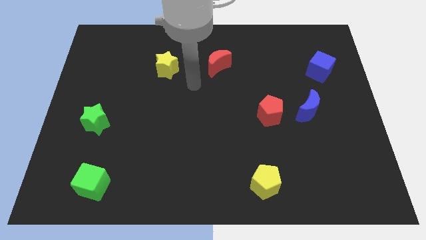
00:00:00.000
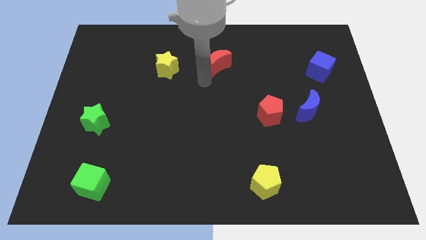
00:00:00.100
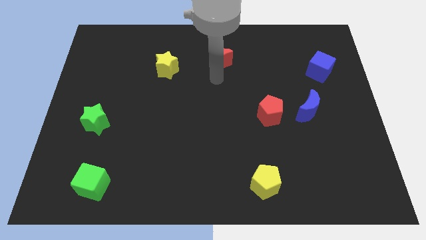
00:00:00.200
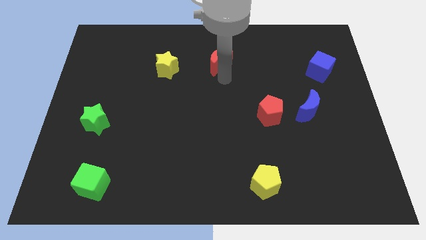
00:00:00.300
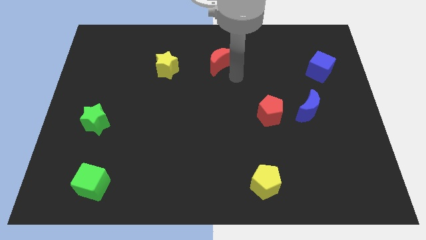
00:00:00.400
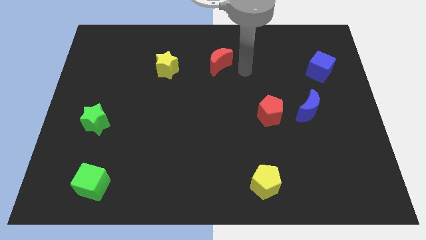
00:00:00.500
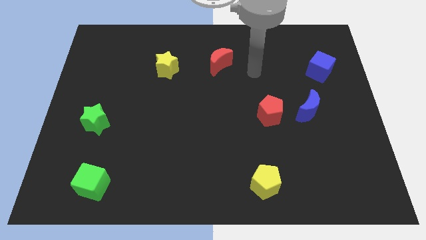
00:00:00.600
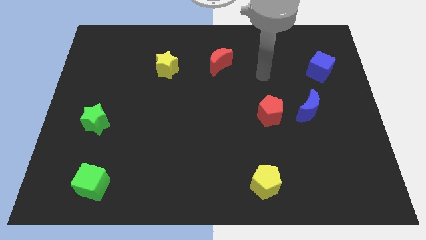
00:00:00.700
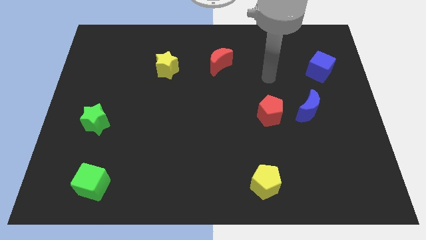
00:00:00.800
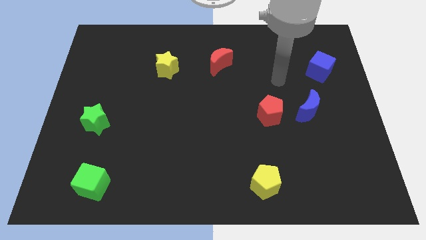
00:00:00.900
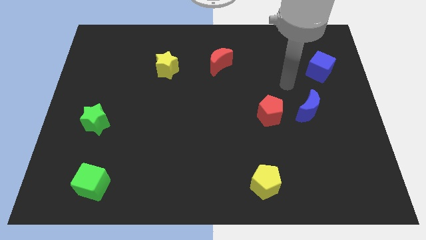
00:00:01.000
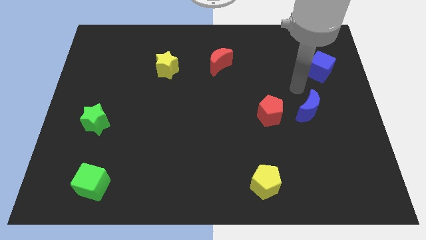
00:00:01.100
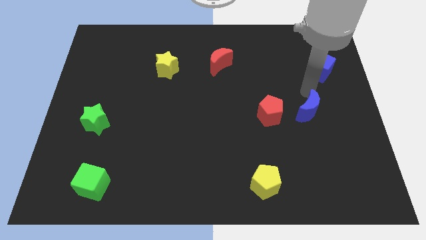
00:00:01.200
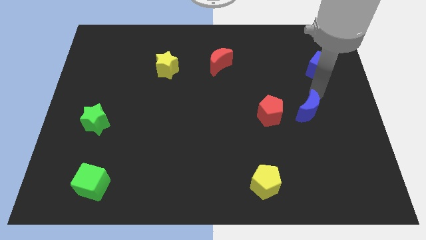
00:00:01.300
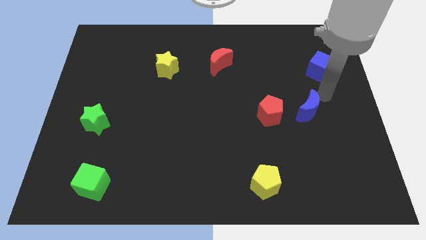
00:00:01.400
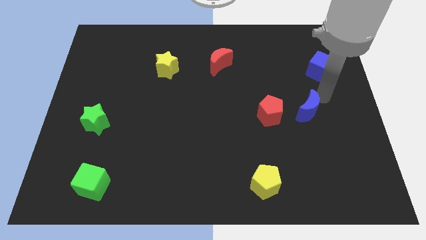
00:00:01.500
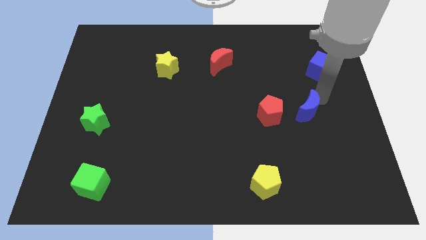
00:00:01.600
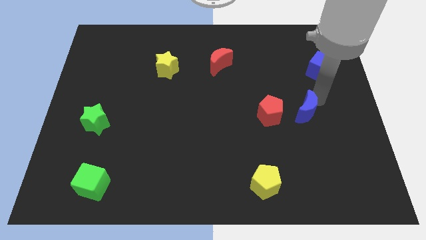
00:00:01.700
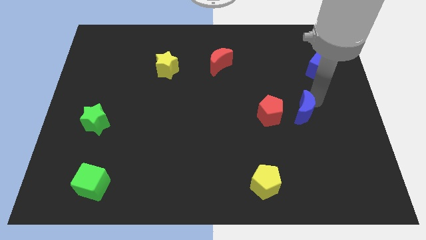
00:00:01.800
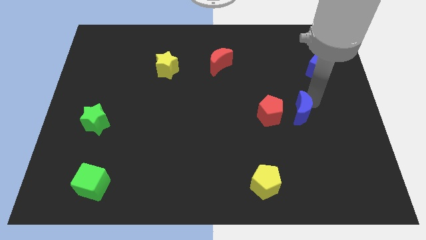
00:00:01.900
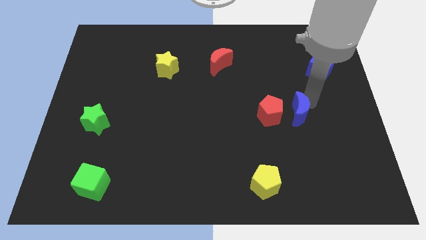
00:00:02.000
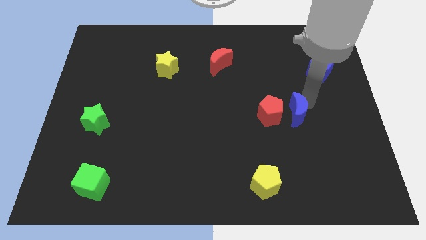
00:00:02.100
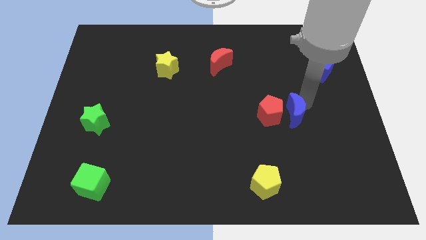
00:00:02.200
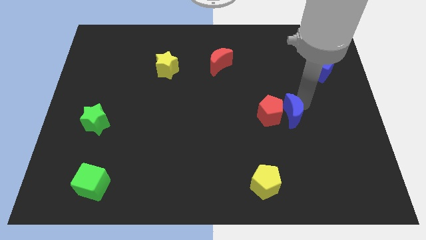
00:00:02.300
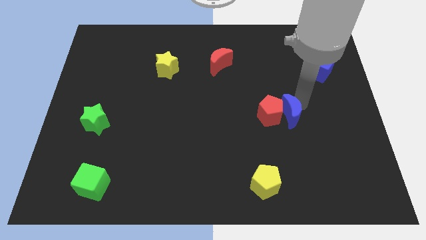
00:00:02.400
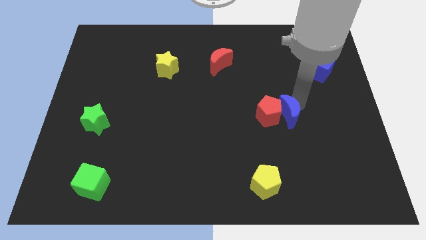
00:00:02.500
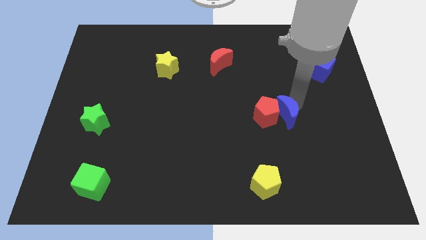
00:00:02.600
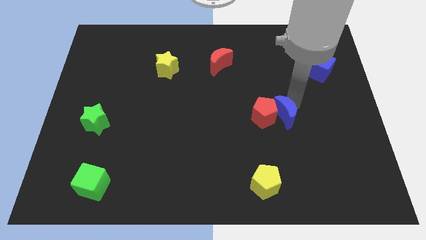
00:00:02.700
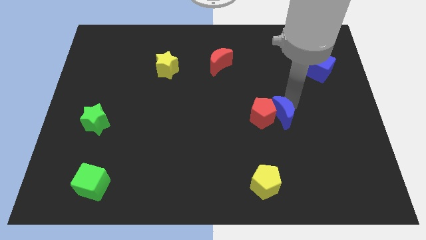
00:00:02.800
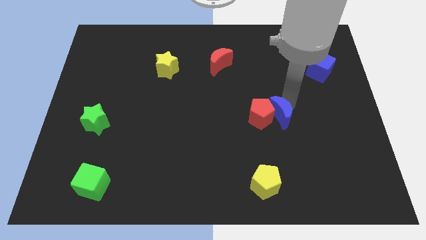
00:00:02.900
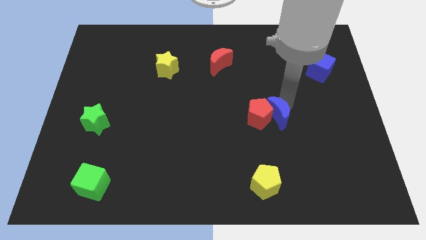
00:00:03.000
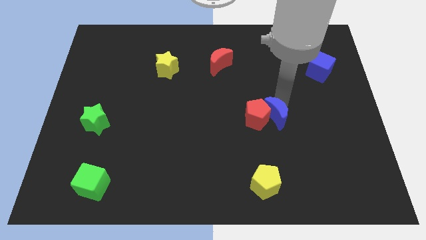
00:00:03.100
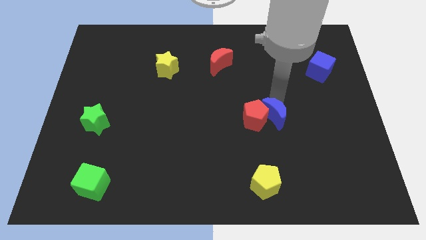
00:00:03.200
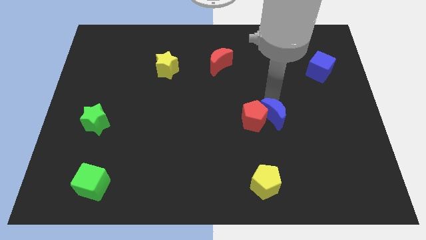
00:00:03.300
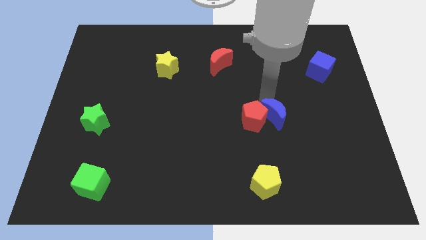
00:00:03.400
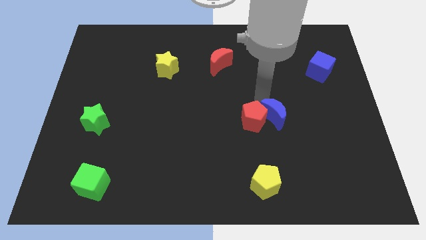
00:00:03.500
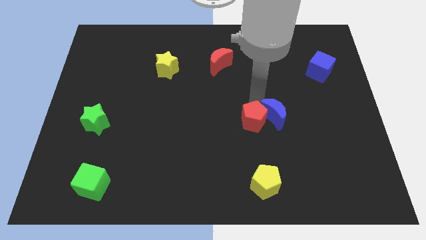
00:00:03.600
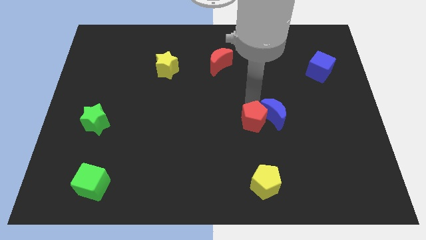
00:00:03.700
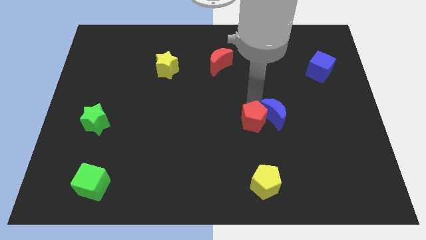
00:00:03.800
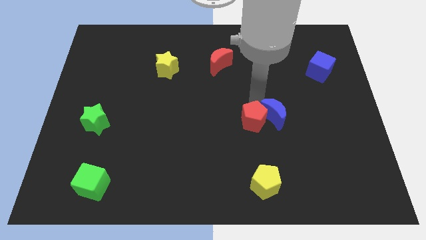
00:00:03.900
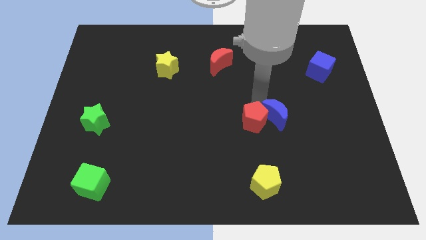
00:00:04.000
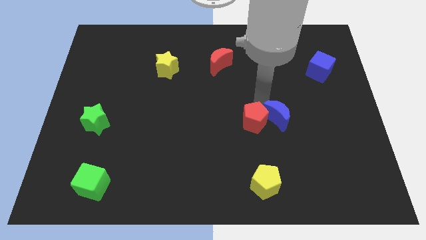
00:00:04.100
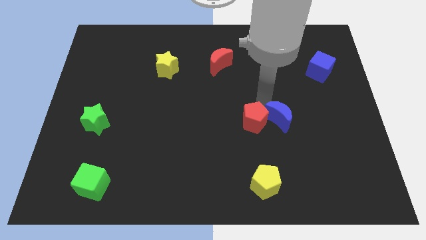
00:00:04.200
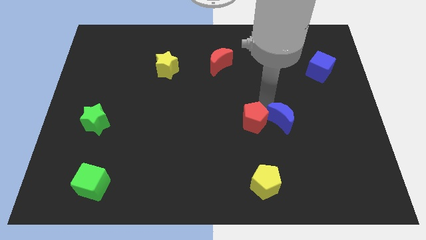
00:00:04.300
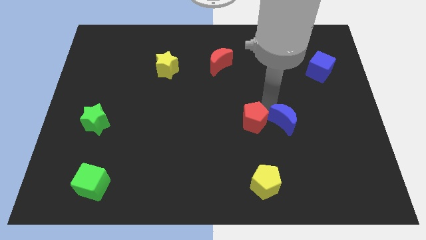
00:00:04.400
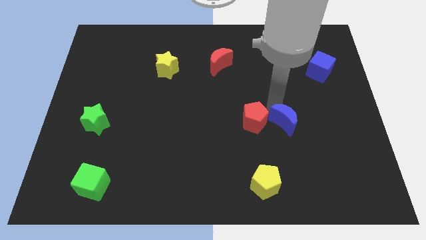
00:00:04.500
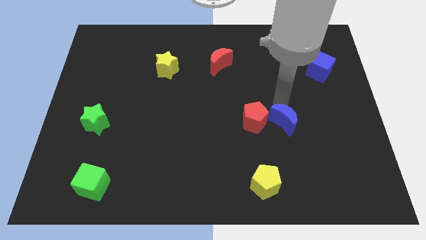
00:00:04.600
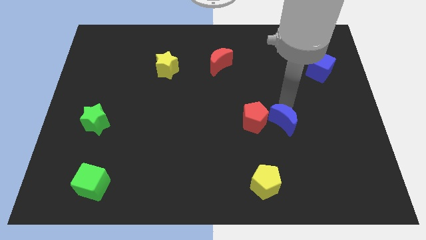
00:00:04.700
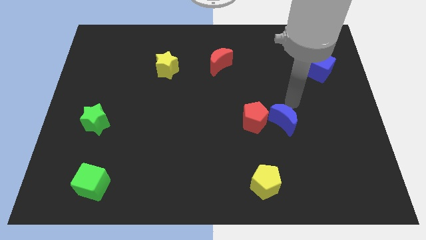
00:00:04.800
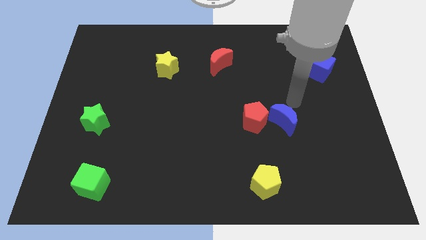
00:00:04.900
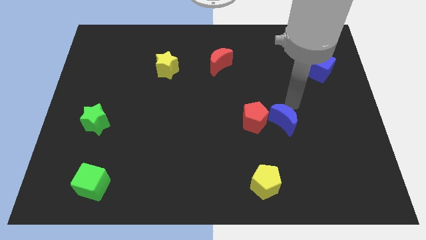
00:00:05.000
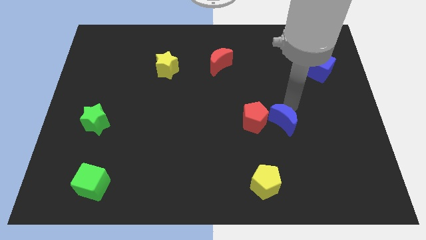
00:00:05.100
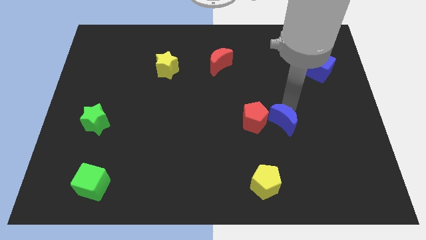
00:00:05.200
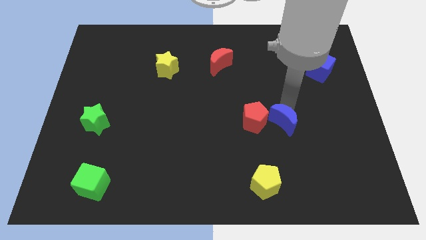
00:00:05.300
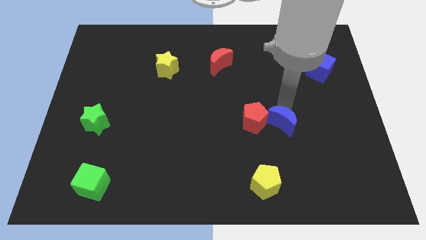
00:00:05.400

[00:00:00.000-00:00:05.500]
push the blue moon a little bit down and to the left diagonally

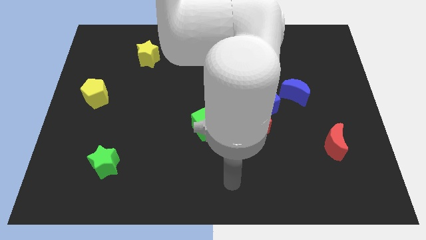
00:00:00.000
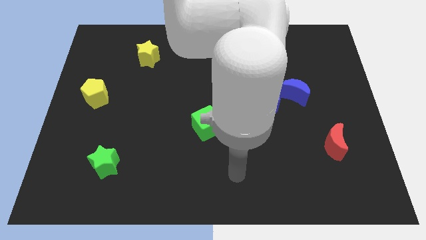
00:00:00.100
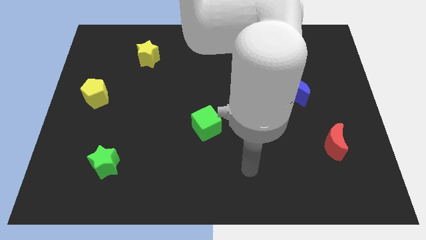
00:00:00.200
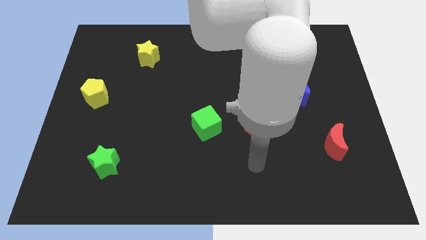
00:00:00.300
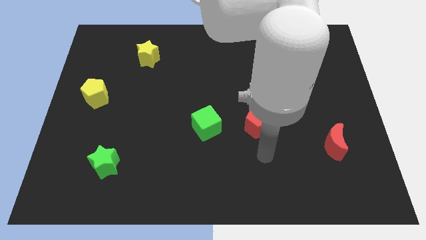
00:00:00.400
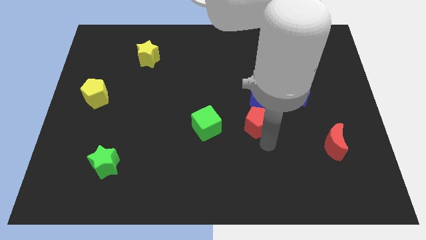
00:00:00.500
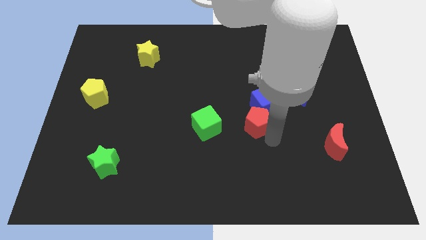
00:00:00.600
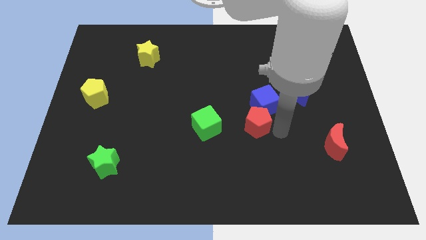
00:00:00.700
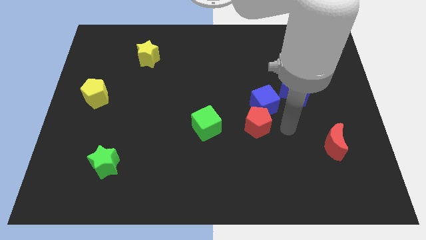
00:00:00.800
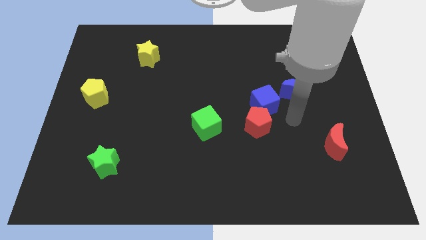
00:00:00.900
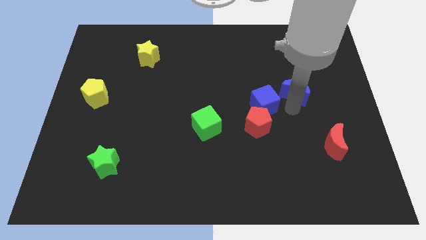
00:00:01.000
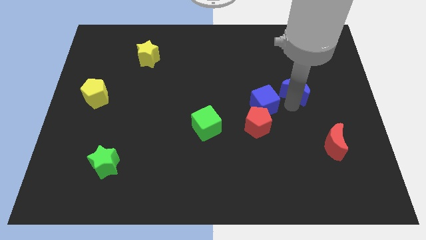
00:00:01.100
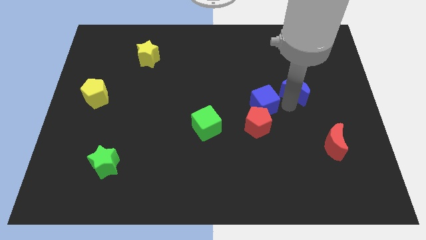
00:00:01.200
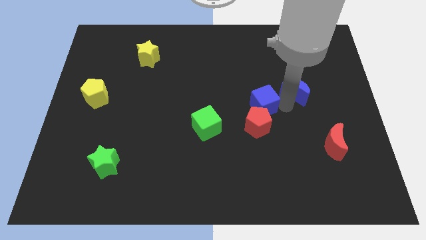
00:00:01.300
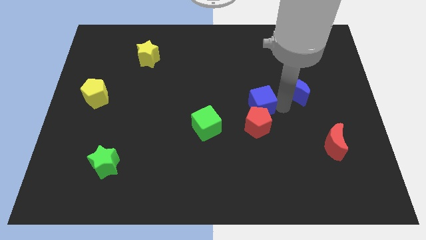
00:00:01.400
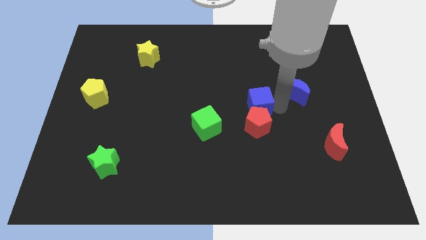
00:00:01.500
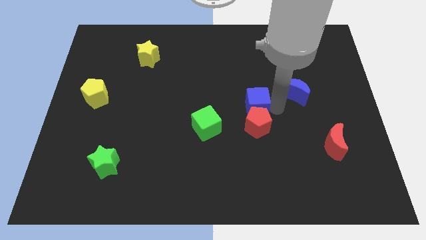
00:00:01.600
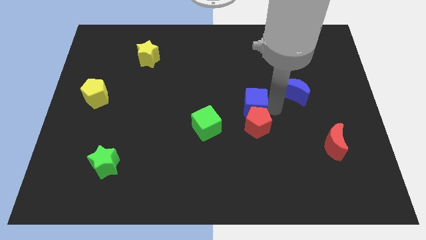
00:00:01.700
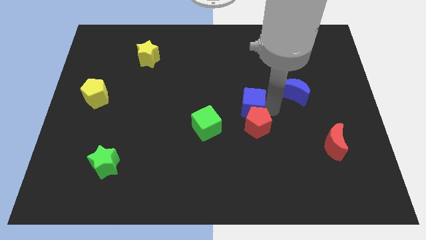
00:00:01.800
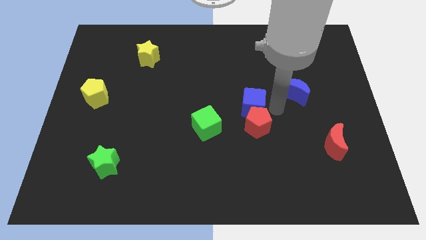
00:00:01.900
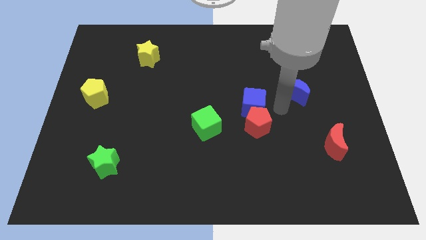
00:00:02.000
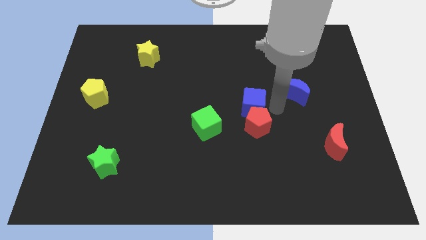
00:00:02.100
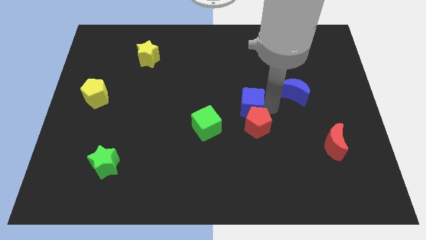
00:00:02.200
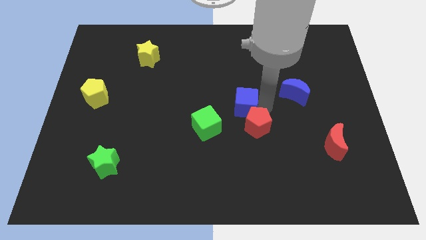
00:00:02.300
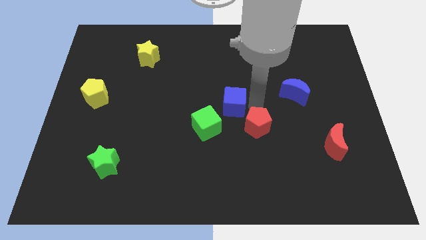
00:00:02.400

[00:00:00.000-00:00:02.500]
move the blue cube somewhat to the left
